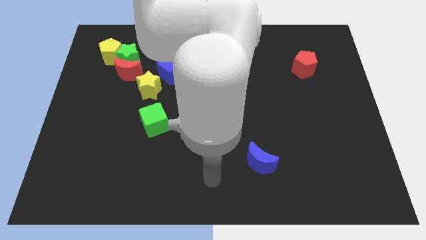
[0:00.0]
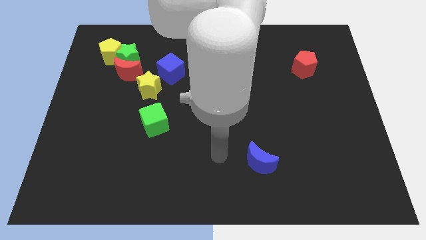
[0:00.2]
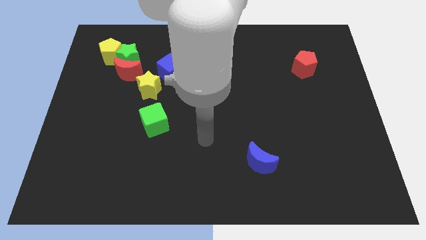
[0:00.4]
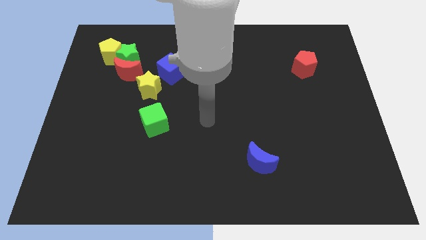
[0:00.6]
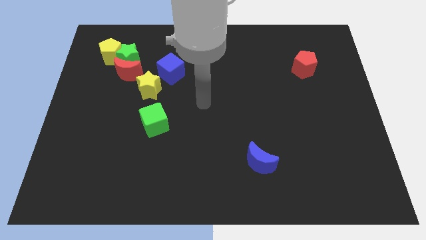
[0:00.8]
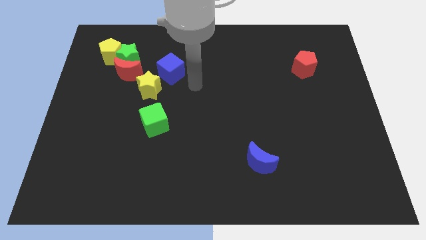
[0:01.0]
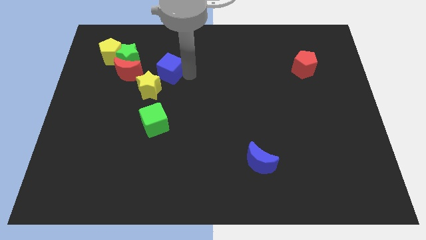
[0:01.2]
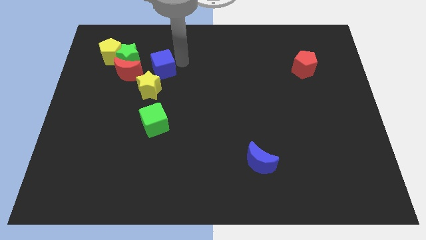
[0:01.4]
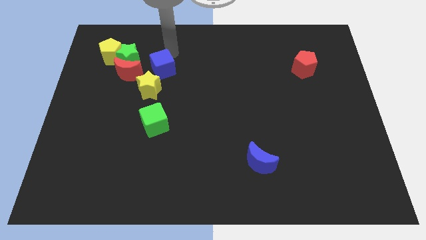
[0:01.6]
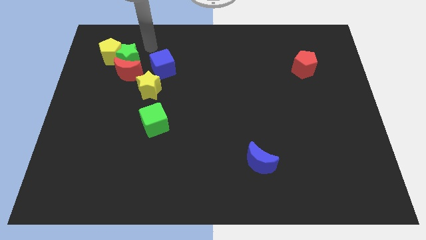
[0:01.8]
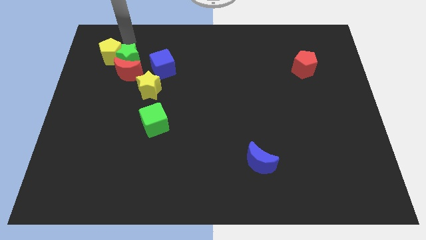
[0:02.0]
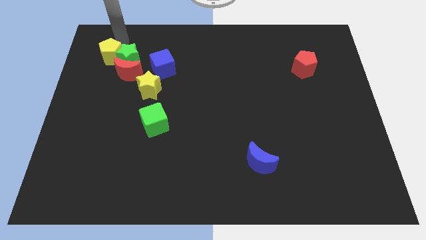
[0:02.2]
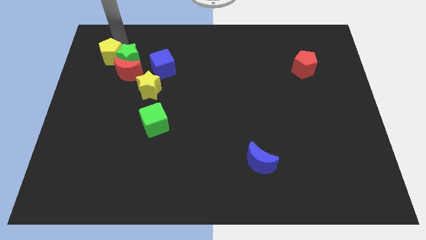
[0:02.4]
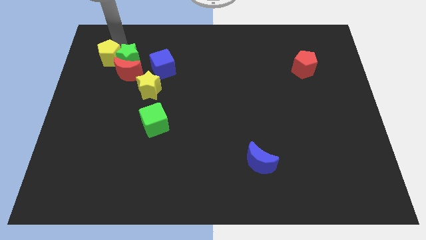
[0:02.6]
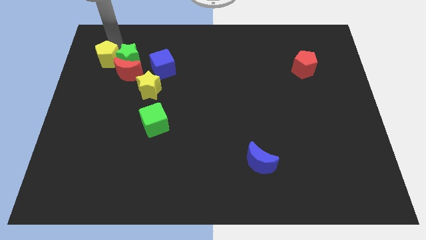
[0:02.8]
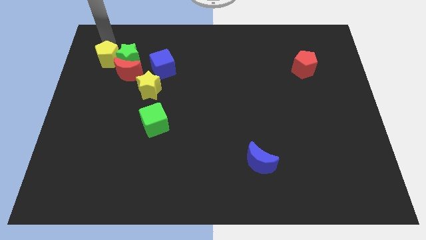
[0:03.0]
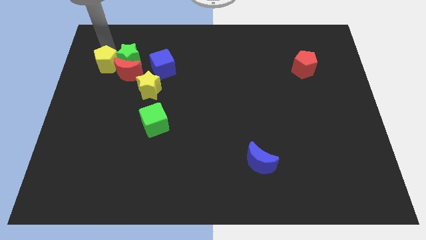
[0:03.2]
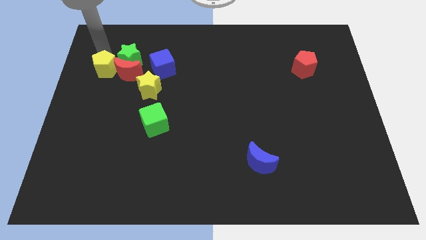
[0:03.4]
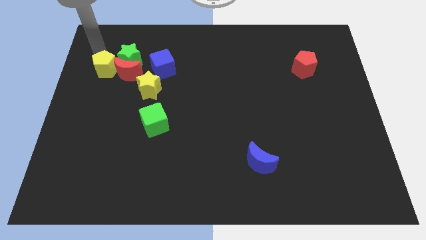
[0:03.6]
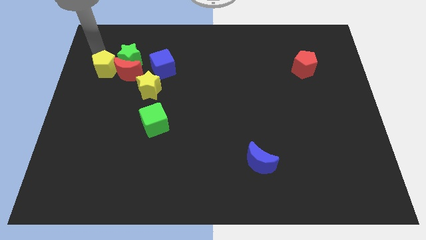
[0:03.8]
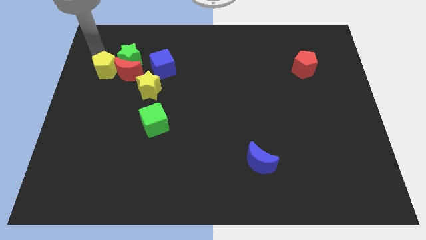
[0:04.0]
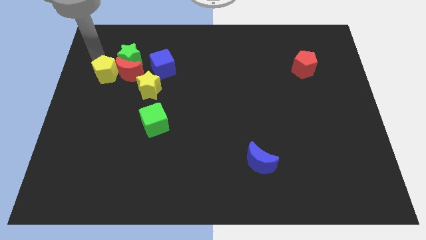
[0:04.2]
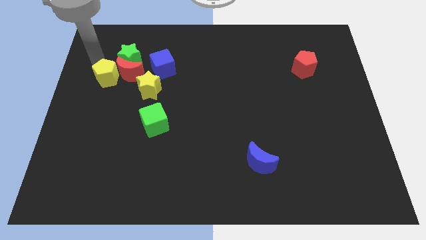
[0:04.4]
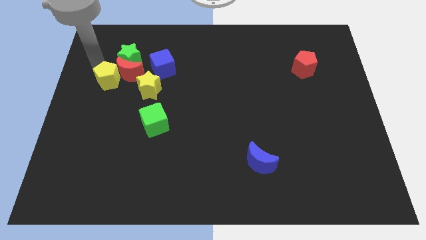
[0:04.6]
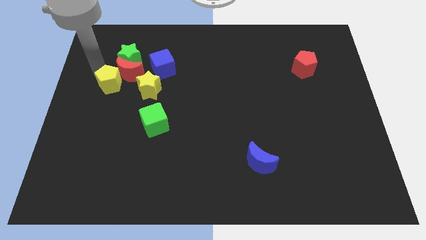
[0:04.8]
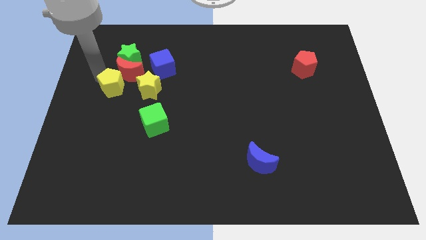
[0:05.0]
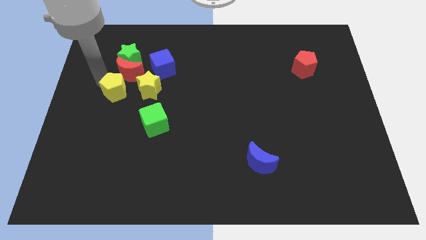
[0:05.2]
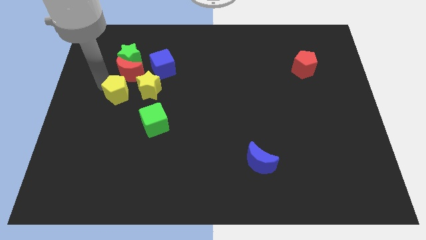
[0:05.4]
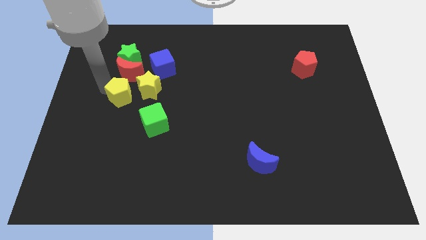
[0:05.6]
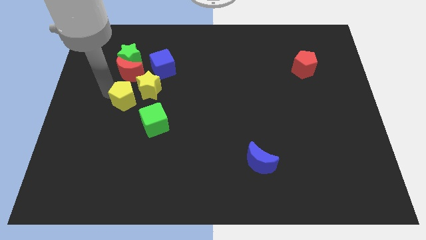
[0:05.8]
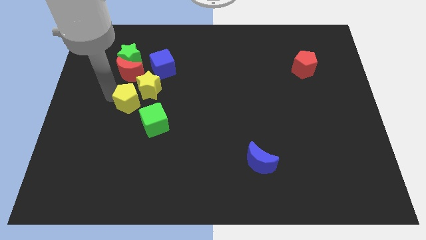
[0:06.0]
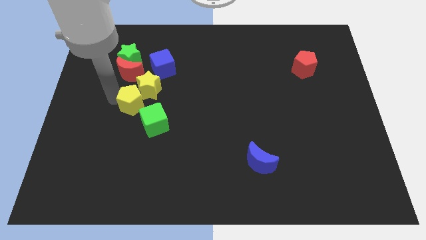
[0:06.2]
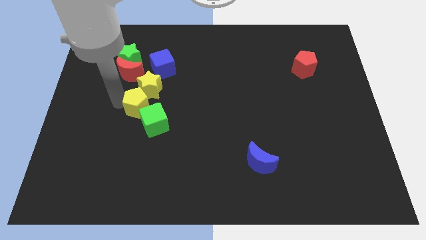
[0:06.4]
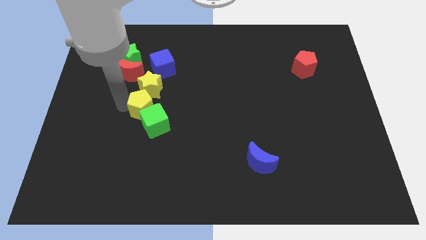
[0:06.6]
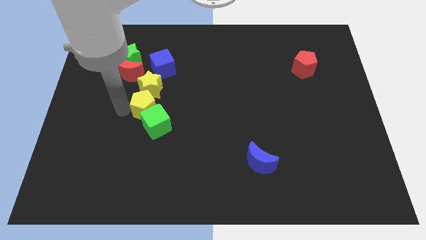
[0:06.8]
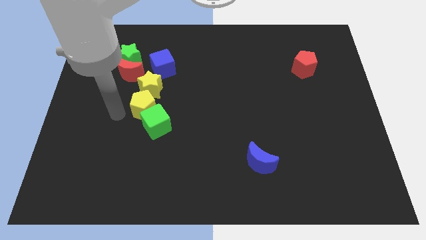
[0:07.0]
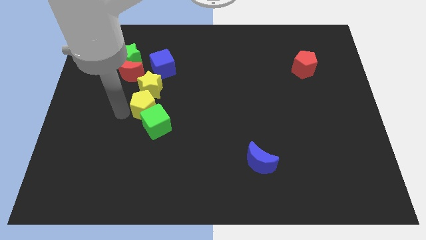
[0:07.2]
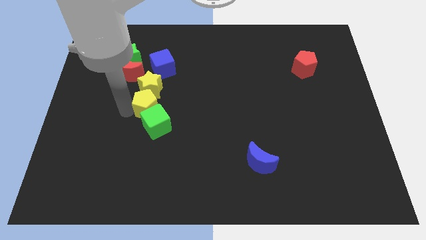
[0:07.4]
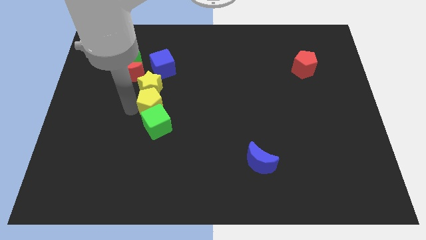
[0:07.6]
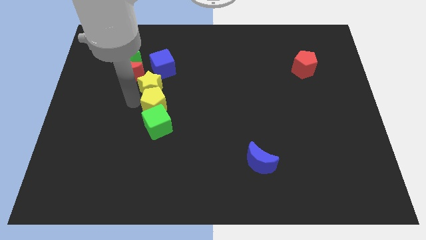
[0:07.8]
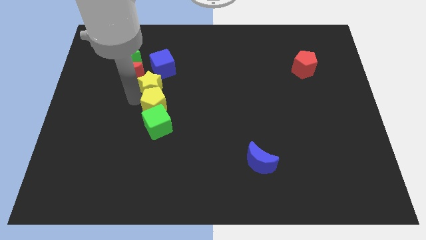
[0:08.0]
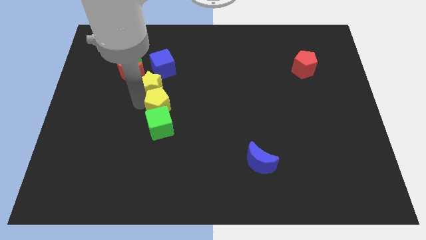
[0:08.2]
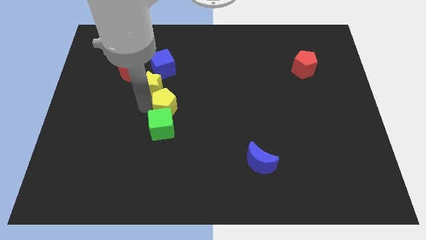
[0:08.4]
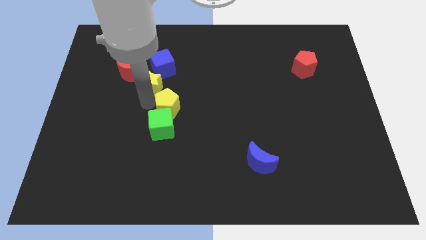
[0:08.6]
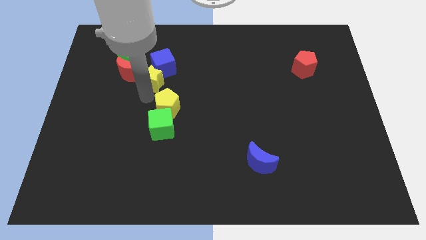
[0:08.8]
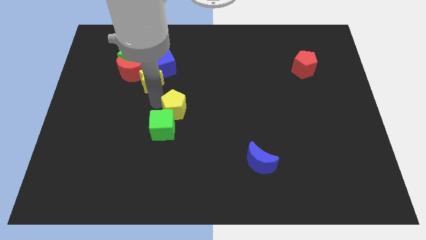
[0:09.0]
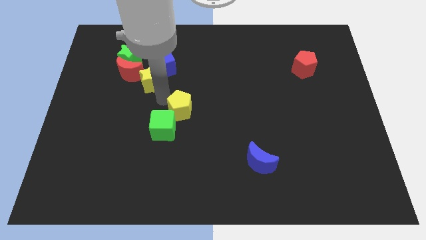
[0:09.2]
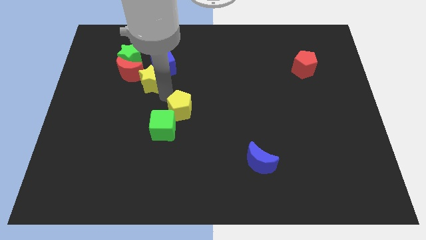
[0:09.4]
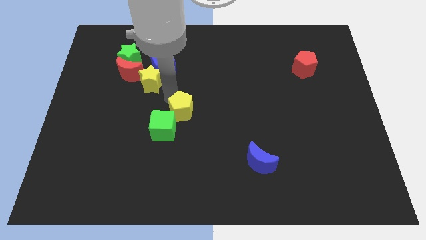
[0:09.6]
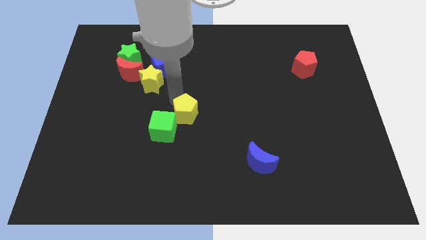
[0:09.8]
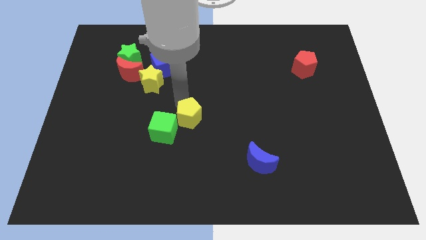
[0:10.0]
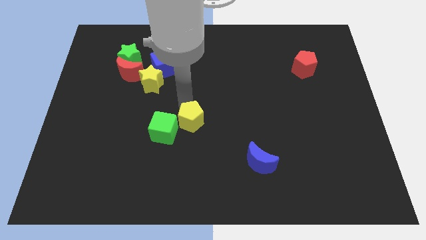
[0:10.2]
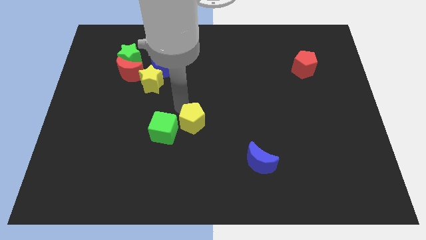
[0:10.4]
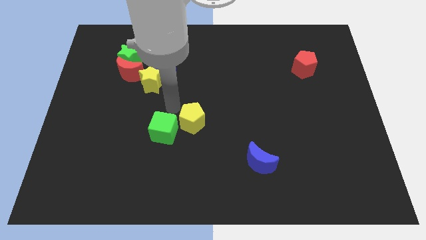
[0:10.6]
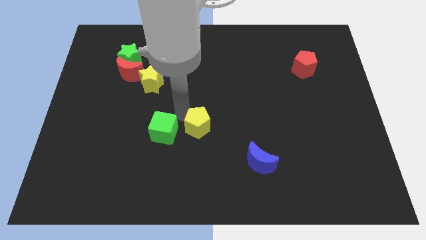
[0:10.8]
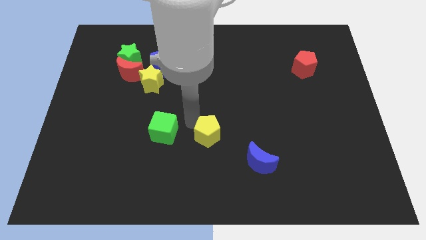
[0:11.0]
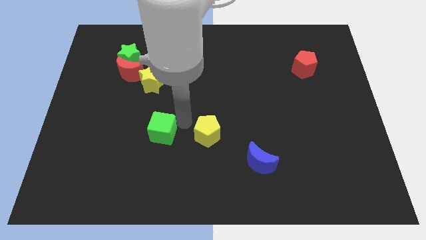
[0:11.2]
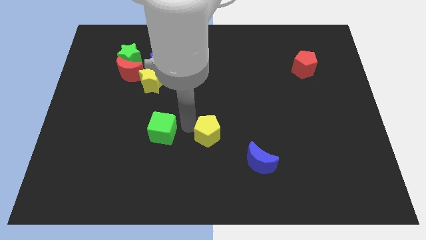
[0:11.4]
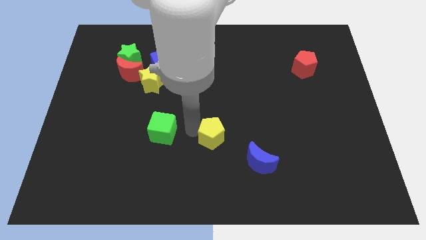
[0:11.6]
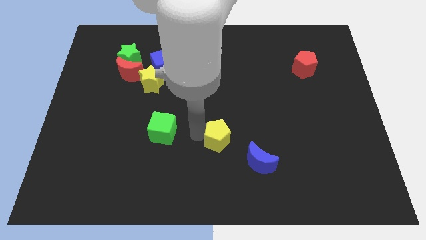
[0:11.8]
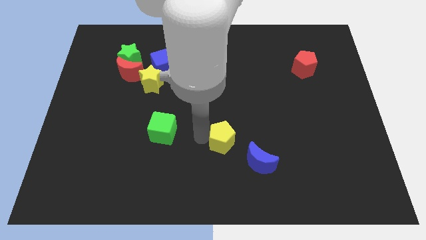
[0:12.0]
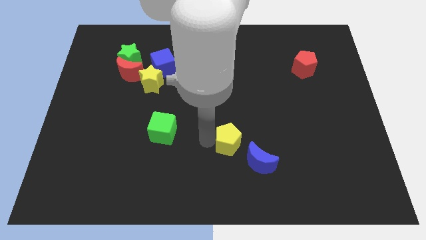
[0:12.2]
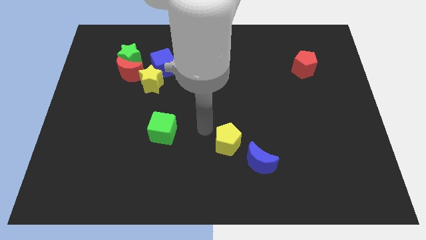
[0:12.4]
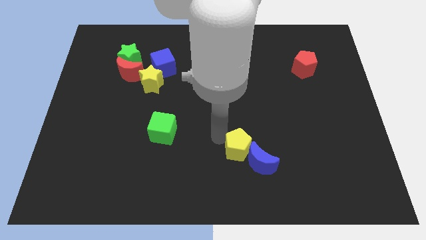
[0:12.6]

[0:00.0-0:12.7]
slide the yellow pentagon towards the blue moon

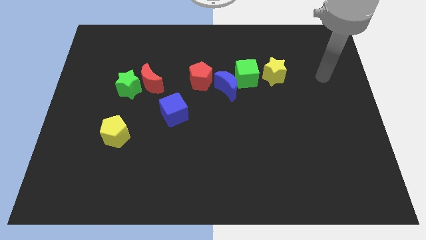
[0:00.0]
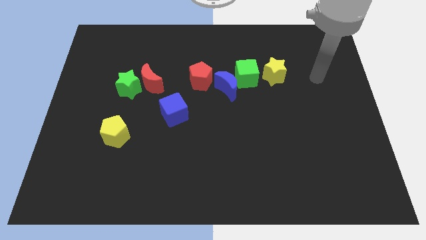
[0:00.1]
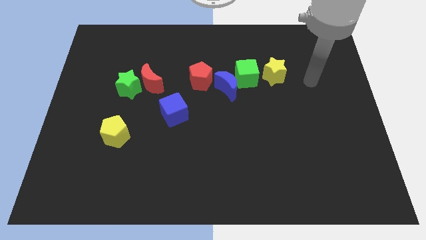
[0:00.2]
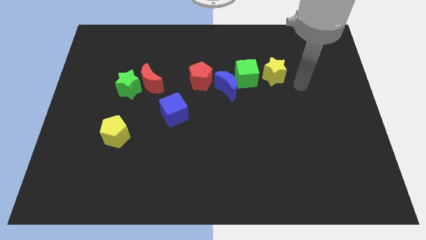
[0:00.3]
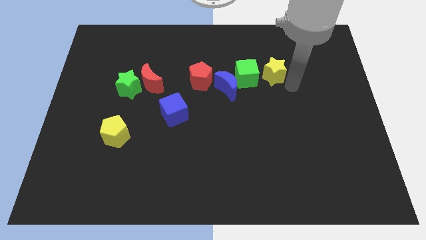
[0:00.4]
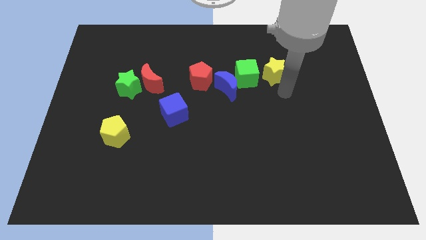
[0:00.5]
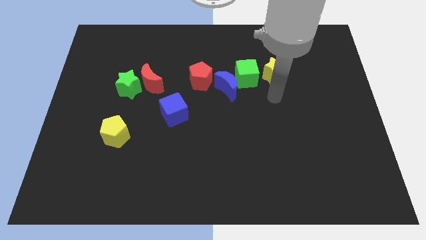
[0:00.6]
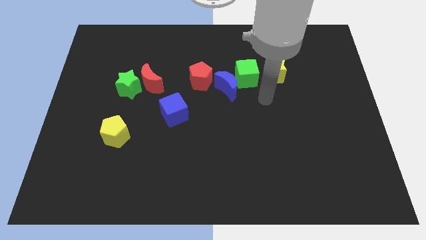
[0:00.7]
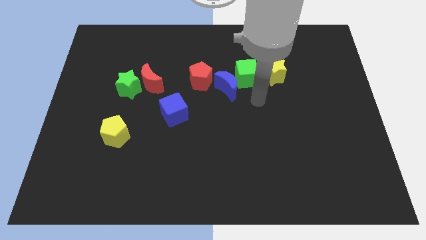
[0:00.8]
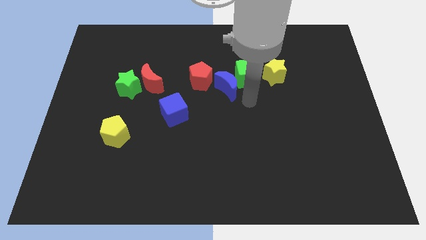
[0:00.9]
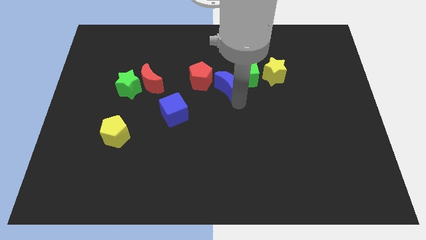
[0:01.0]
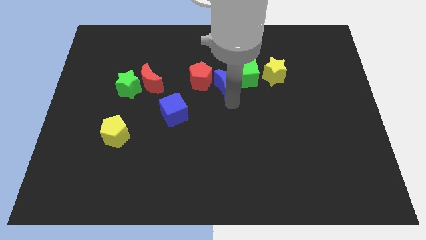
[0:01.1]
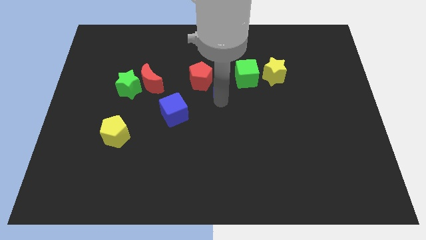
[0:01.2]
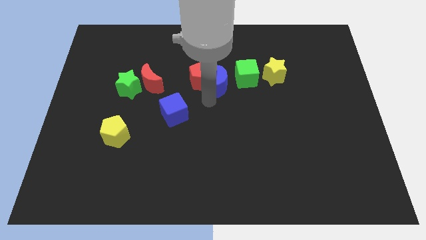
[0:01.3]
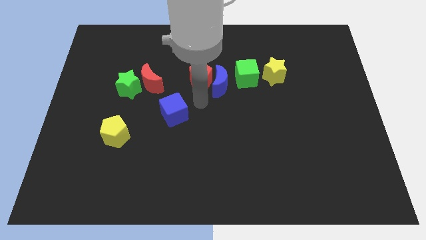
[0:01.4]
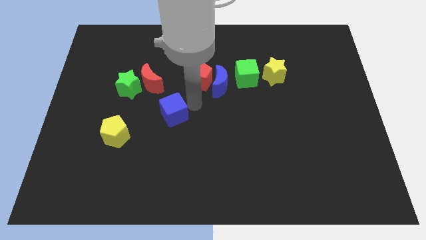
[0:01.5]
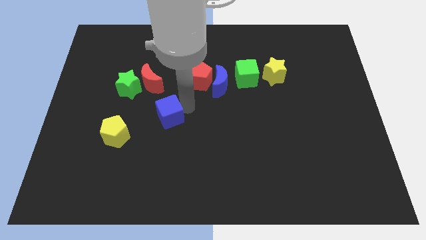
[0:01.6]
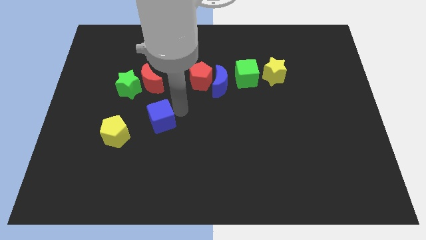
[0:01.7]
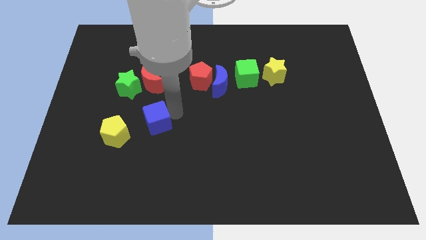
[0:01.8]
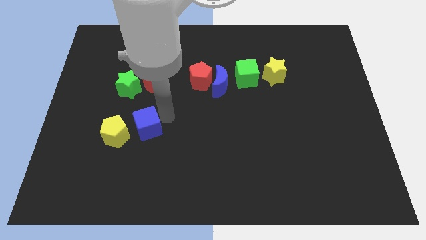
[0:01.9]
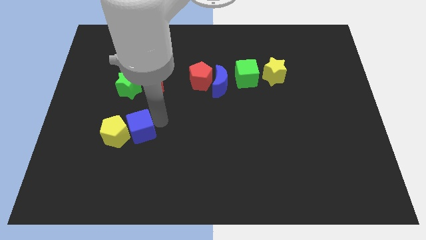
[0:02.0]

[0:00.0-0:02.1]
move the blue cube to the yellow pentagon
